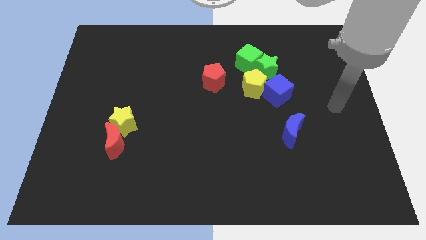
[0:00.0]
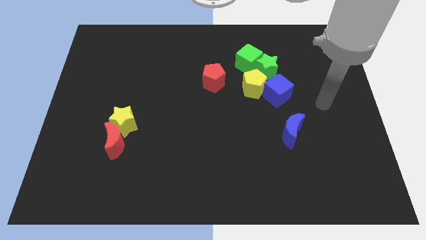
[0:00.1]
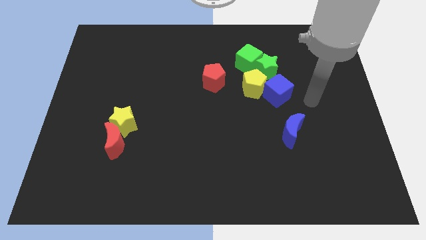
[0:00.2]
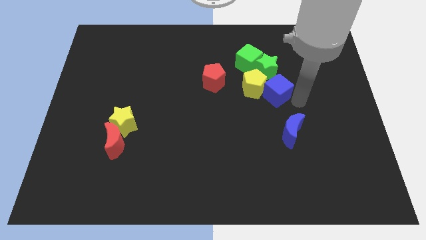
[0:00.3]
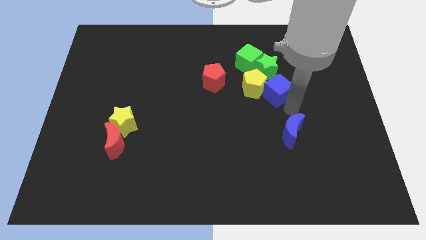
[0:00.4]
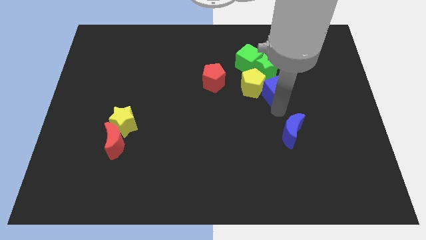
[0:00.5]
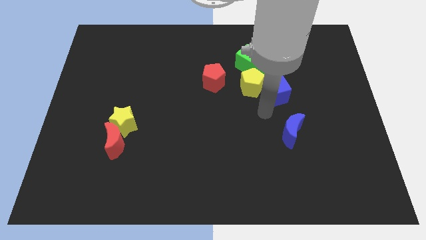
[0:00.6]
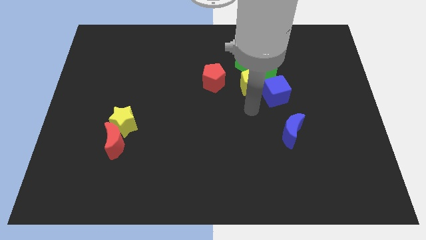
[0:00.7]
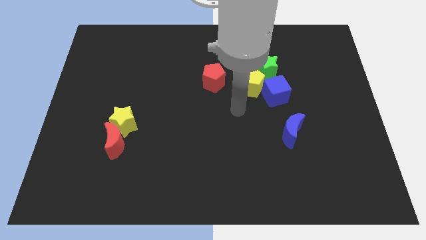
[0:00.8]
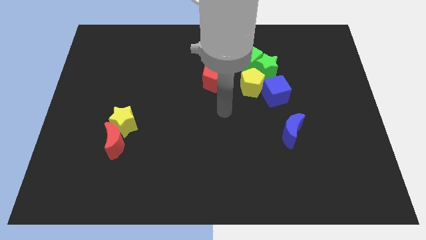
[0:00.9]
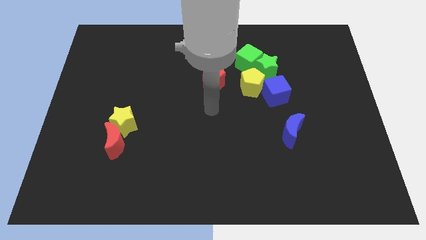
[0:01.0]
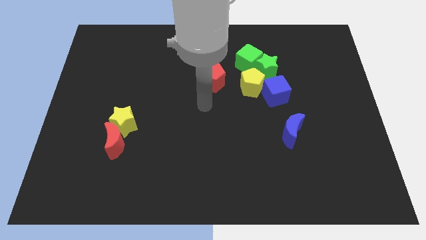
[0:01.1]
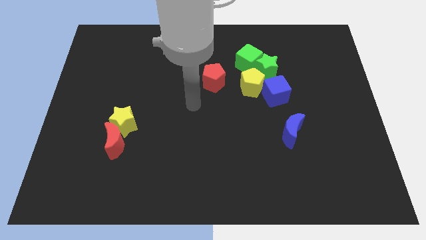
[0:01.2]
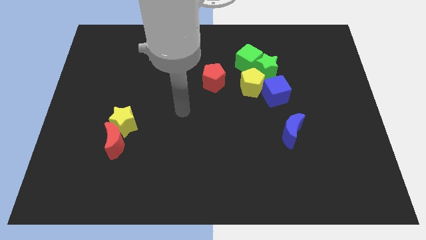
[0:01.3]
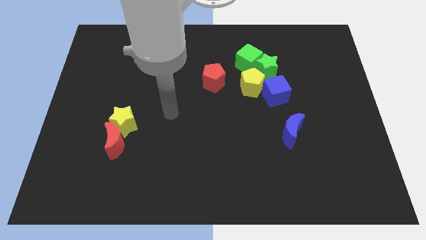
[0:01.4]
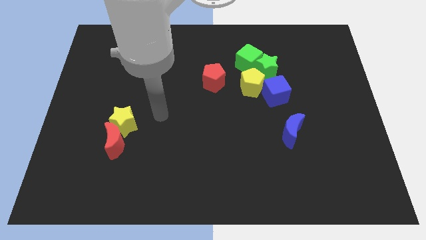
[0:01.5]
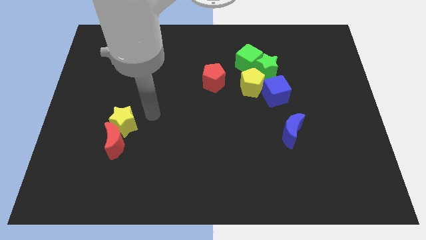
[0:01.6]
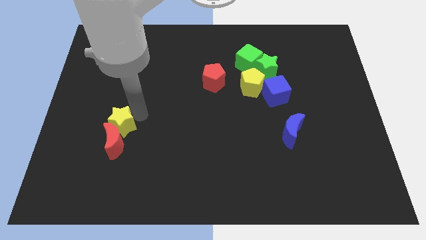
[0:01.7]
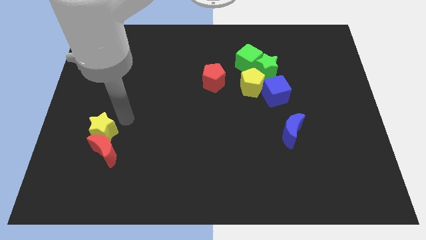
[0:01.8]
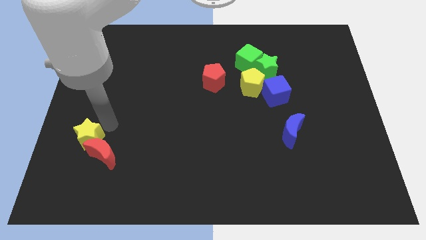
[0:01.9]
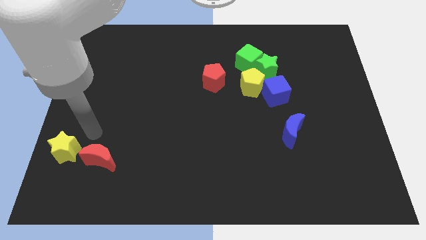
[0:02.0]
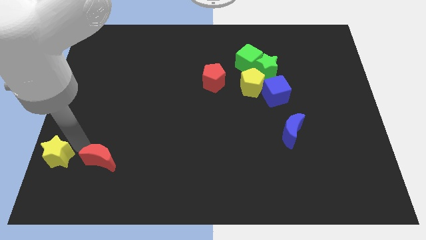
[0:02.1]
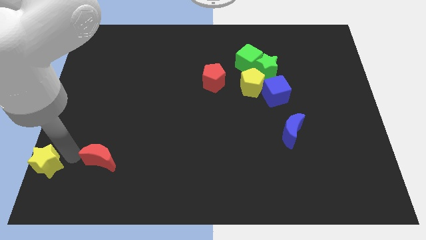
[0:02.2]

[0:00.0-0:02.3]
pull the red moon apart from the yellow star

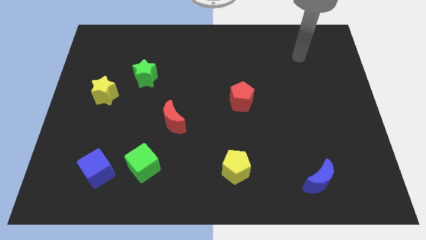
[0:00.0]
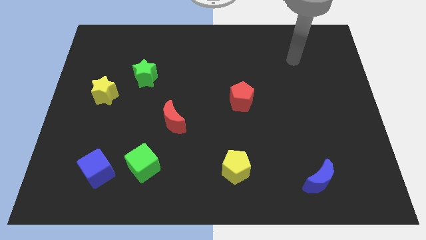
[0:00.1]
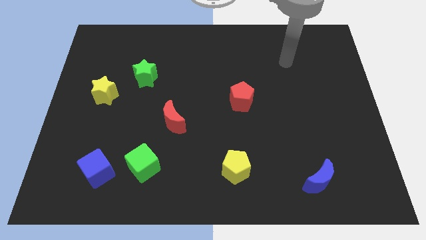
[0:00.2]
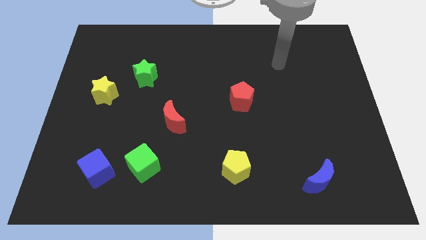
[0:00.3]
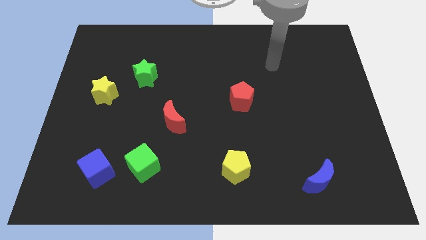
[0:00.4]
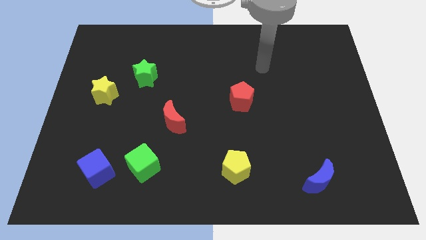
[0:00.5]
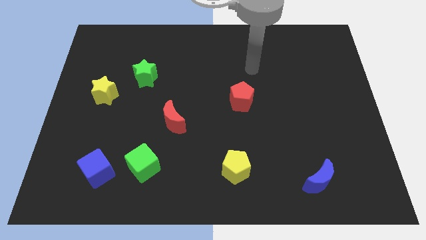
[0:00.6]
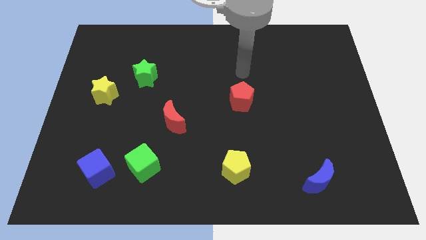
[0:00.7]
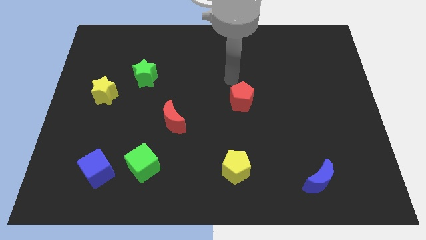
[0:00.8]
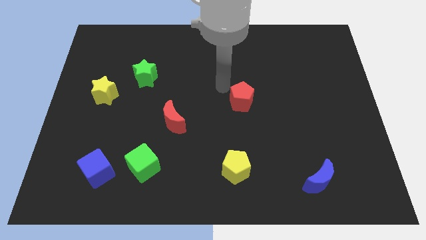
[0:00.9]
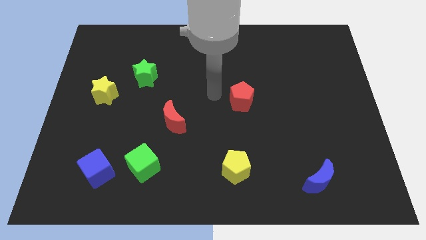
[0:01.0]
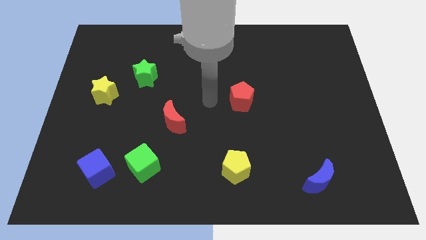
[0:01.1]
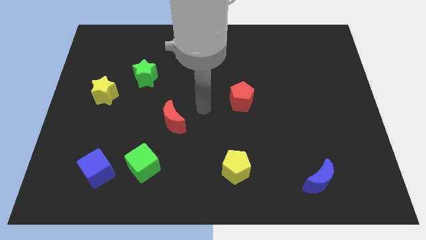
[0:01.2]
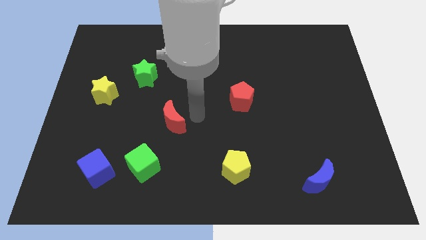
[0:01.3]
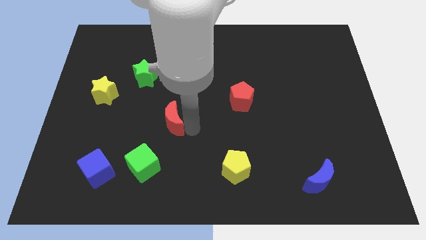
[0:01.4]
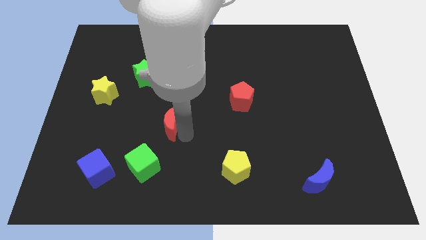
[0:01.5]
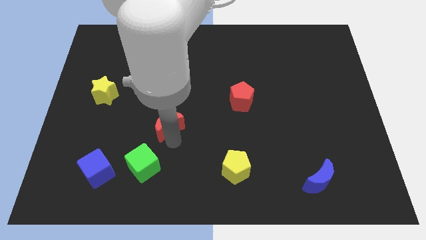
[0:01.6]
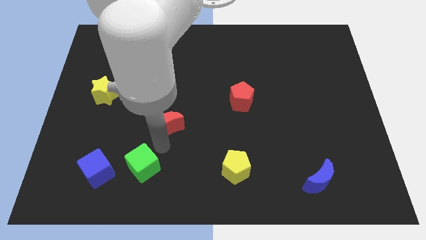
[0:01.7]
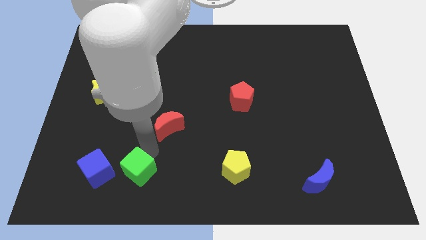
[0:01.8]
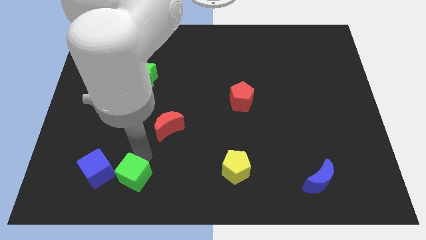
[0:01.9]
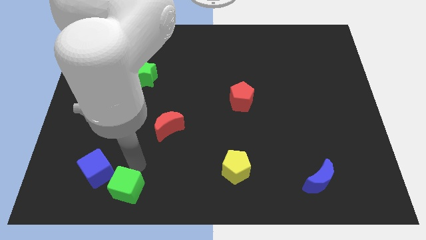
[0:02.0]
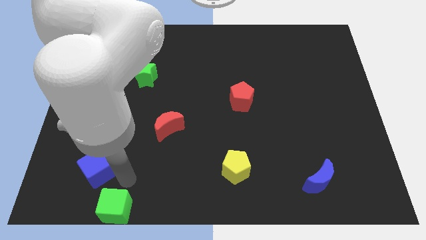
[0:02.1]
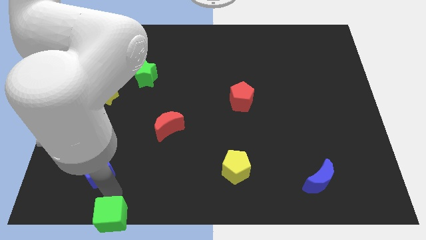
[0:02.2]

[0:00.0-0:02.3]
move the blue cube away from the green cube

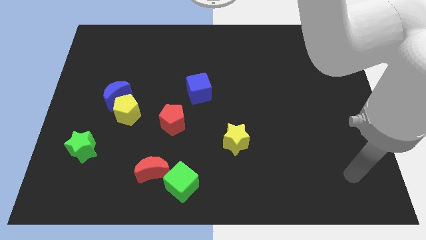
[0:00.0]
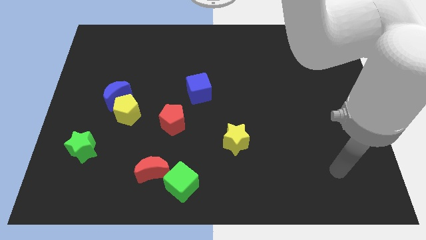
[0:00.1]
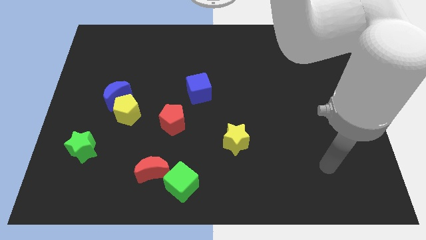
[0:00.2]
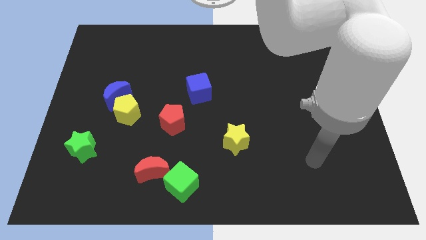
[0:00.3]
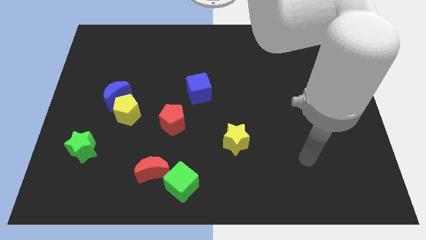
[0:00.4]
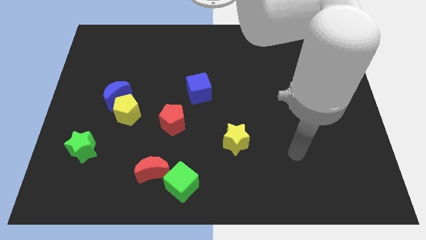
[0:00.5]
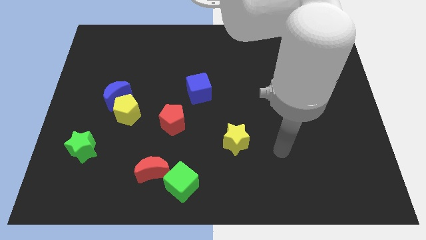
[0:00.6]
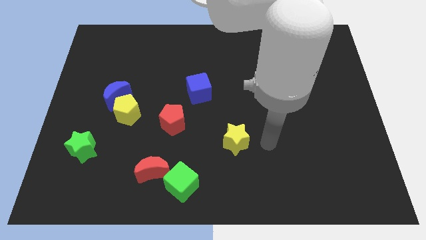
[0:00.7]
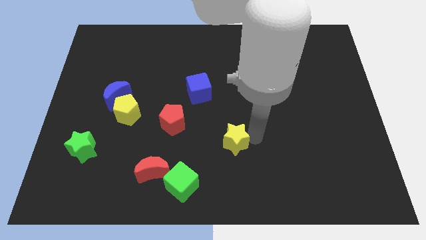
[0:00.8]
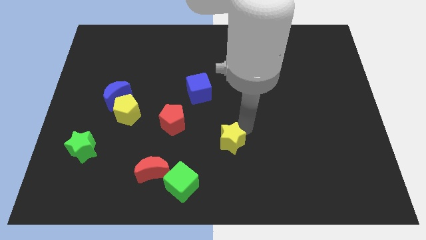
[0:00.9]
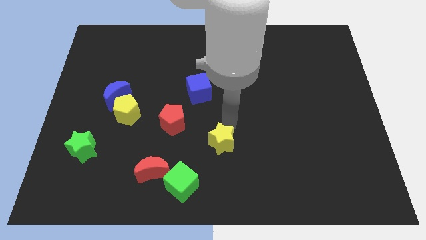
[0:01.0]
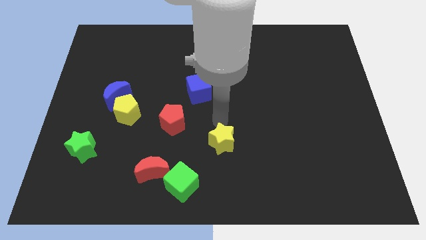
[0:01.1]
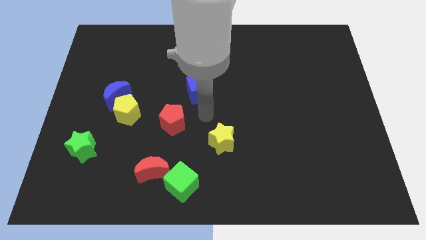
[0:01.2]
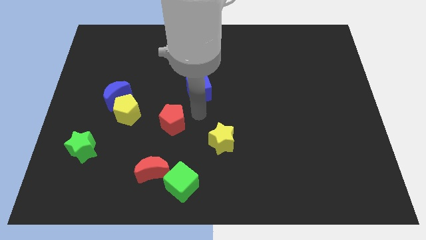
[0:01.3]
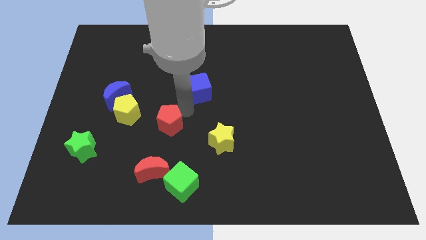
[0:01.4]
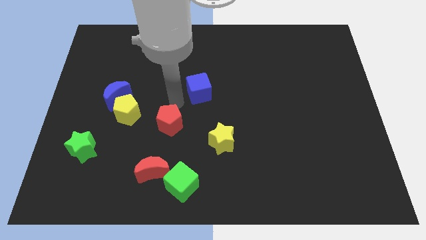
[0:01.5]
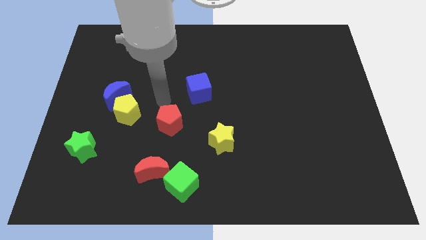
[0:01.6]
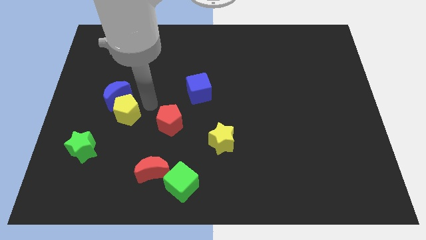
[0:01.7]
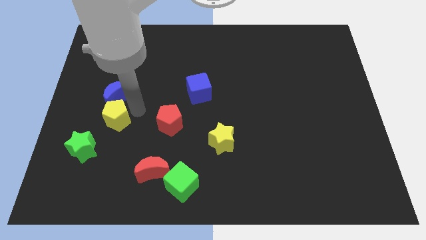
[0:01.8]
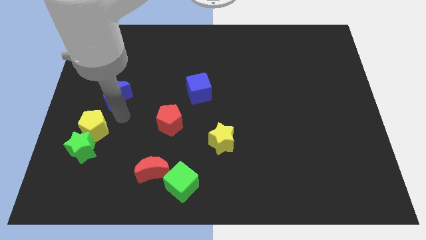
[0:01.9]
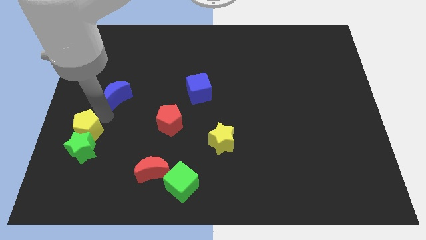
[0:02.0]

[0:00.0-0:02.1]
move the blue moon away from the yellow pentagon

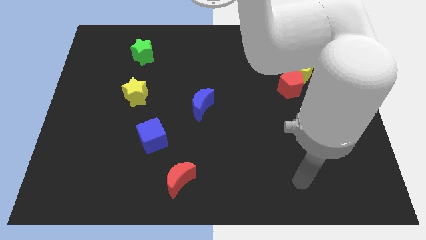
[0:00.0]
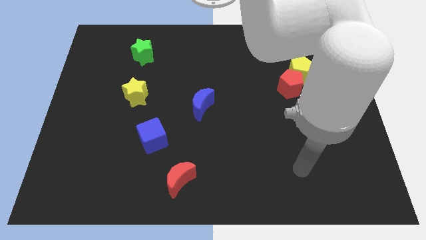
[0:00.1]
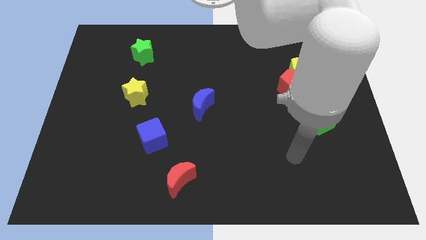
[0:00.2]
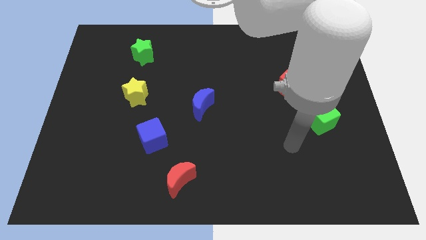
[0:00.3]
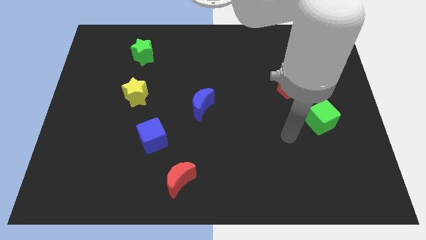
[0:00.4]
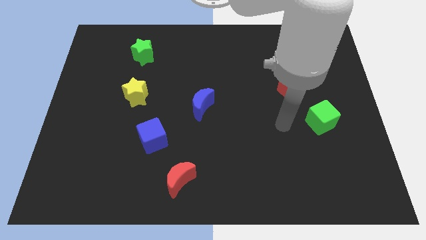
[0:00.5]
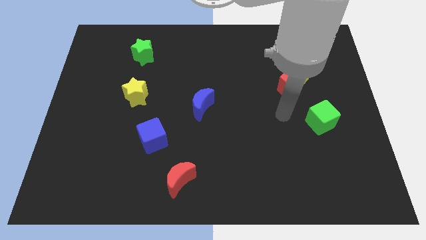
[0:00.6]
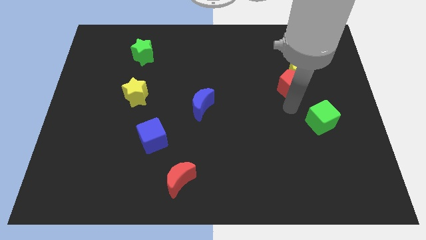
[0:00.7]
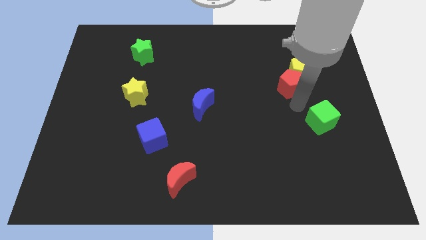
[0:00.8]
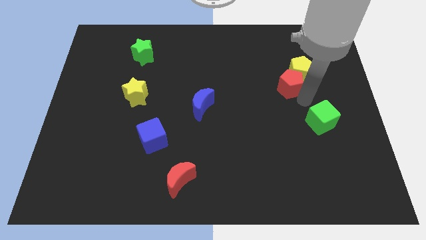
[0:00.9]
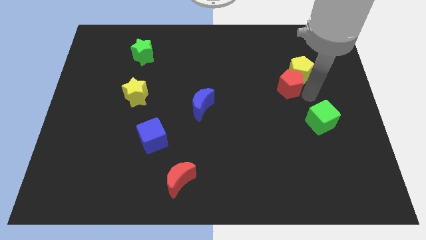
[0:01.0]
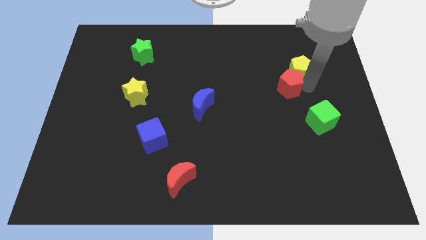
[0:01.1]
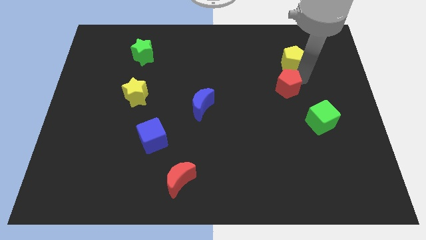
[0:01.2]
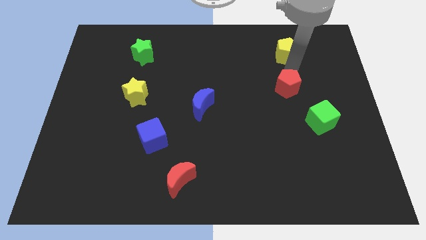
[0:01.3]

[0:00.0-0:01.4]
pull the red pentagon apart from the yellow pentagon

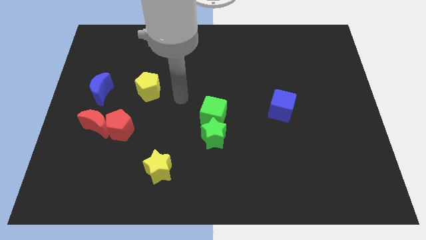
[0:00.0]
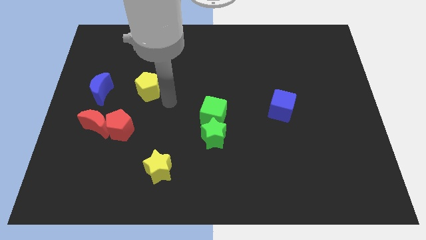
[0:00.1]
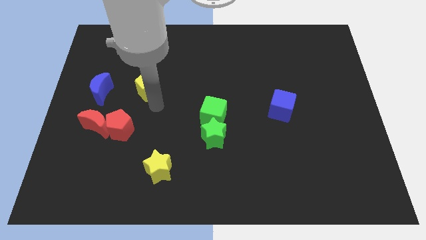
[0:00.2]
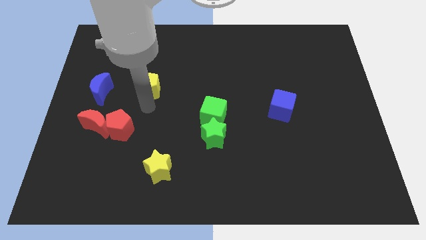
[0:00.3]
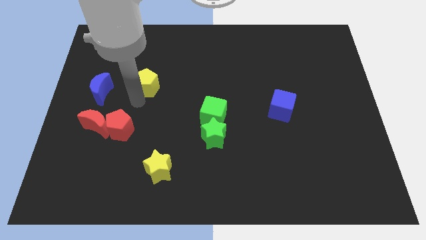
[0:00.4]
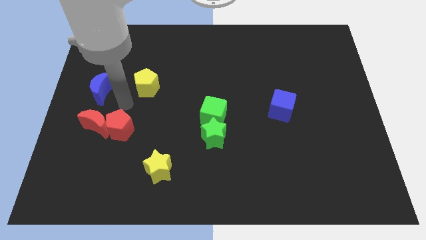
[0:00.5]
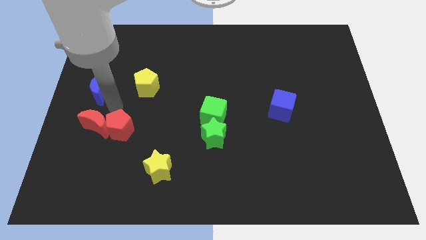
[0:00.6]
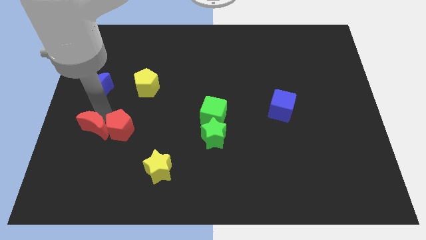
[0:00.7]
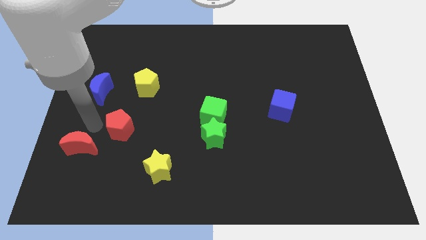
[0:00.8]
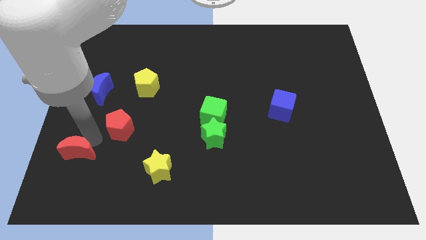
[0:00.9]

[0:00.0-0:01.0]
pull the red pentagon apart from the red moon
